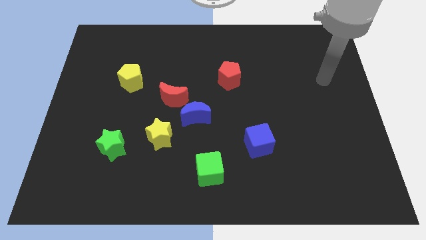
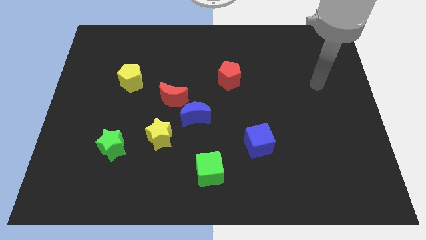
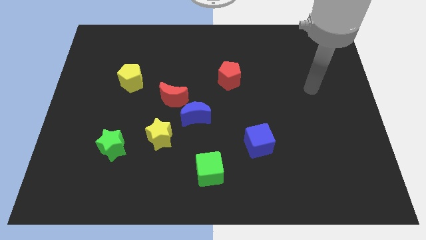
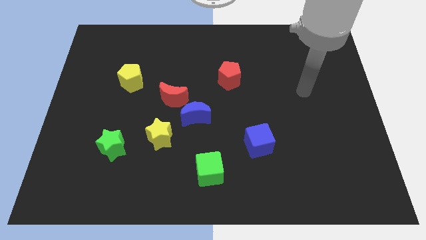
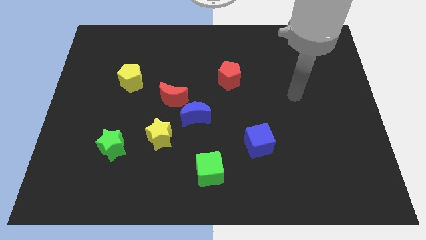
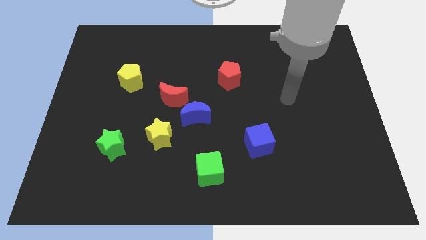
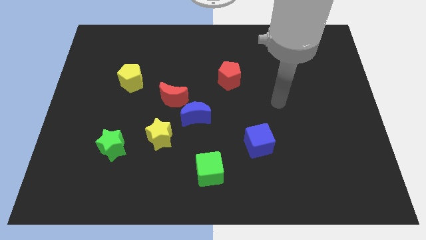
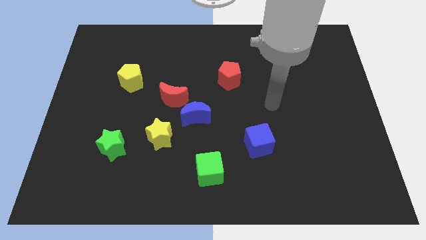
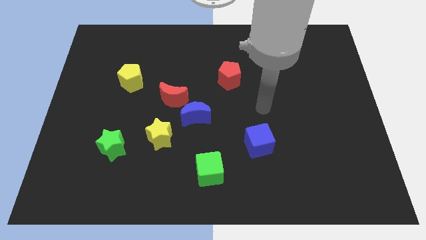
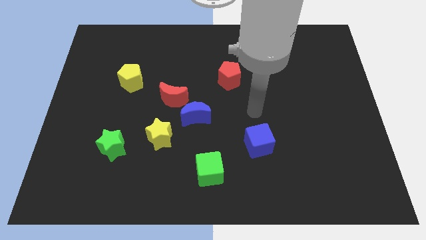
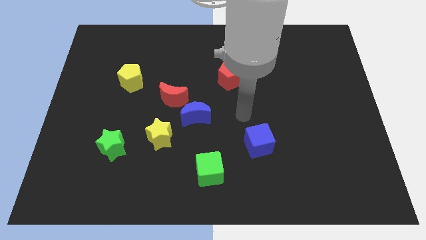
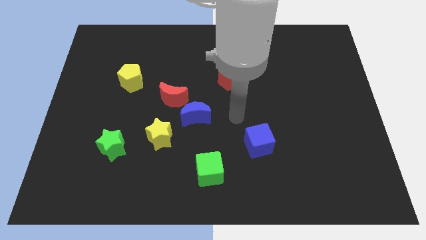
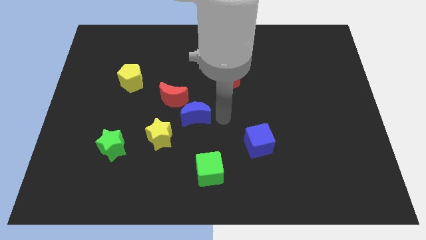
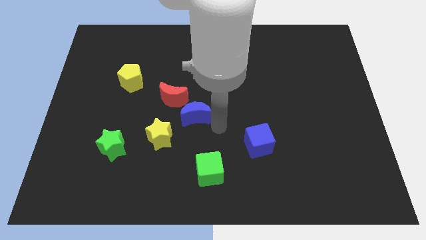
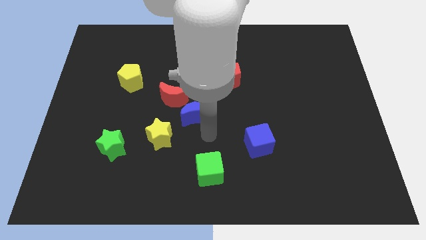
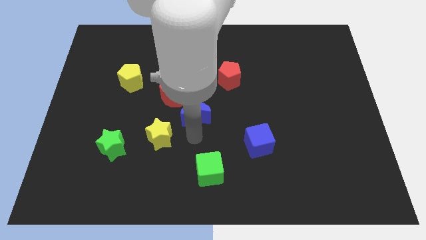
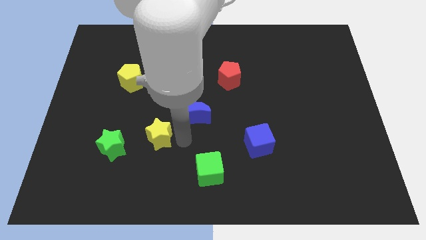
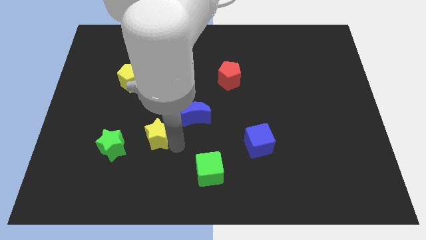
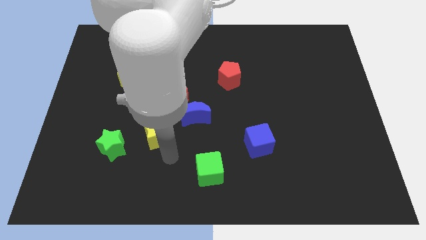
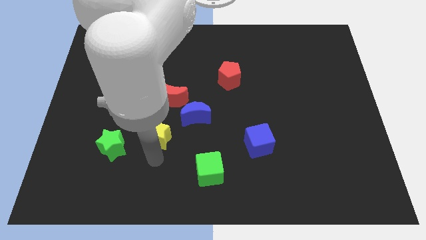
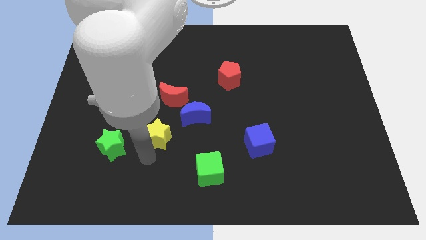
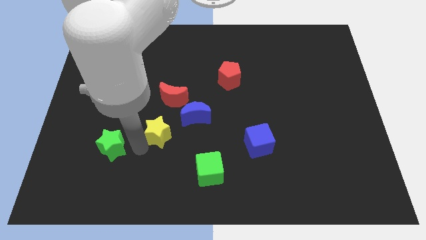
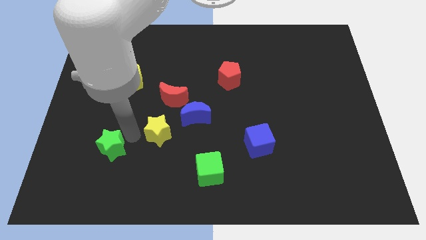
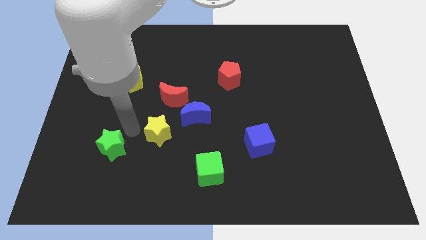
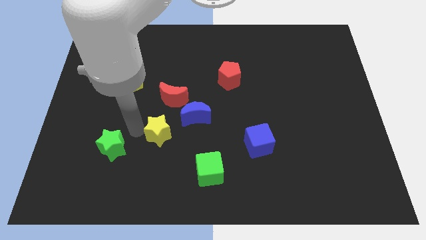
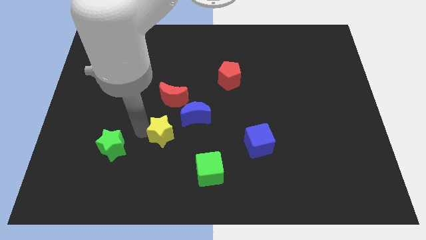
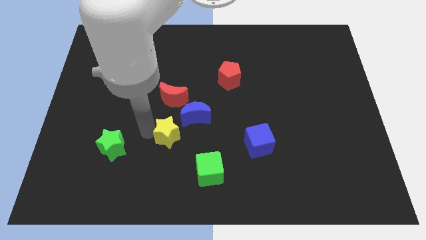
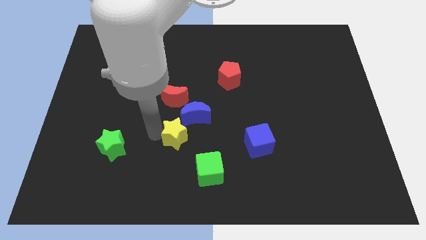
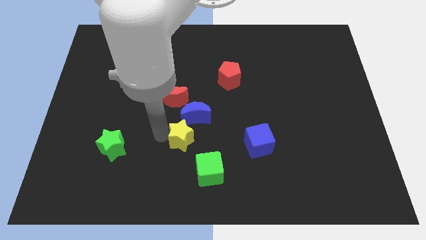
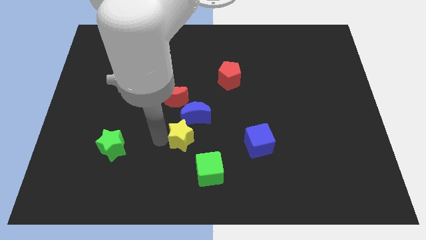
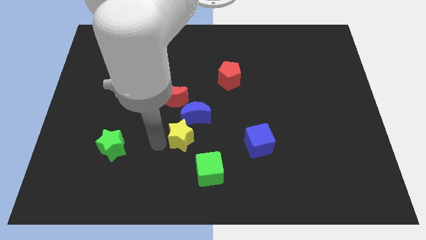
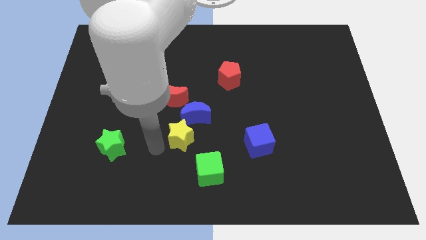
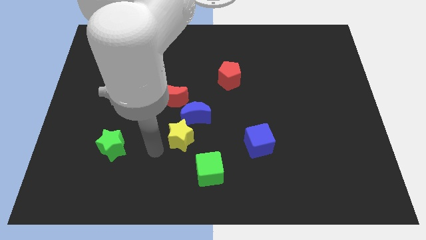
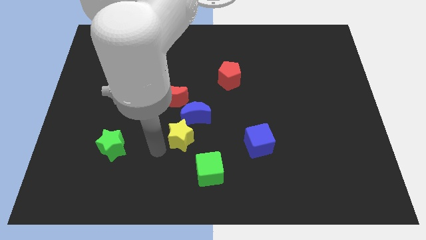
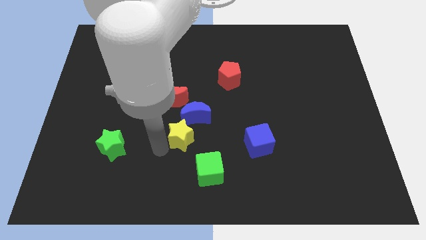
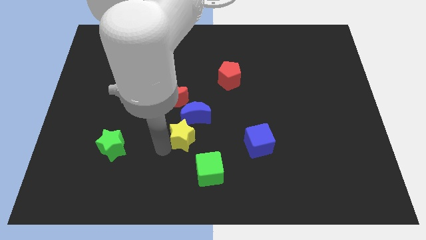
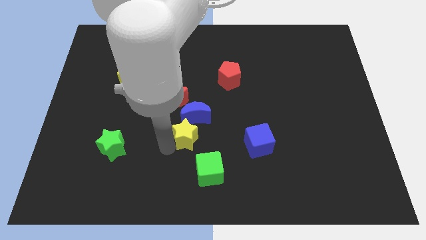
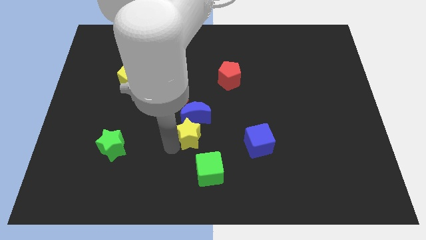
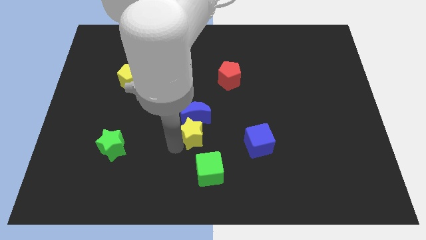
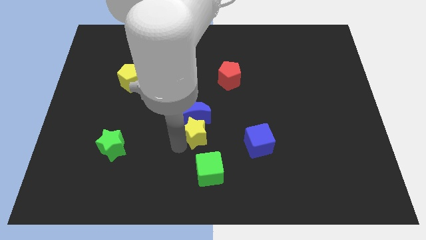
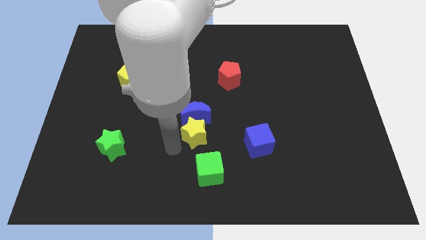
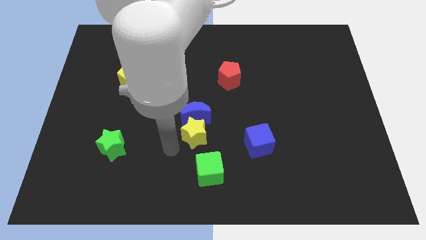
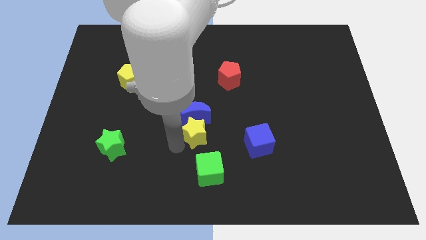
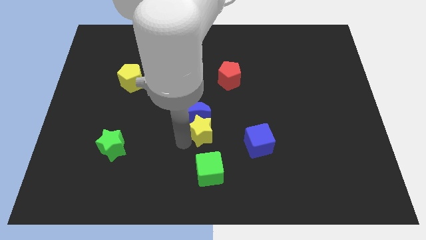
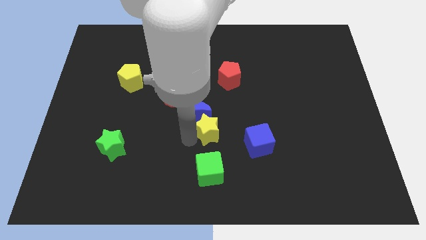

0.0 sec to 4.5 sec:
slide the yellow star a little bit up and right diagonally

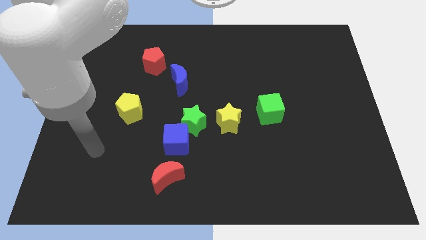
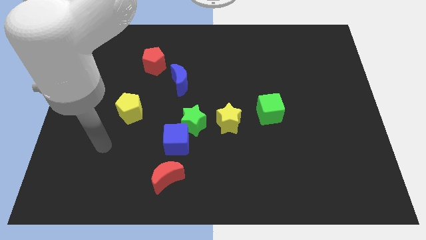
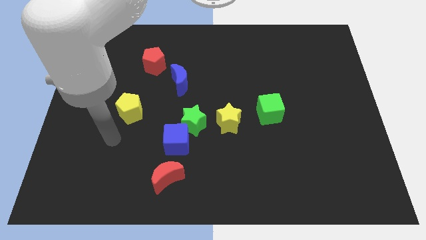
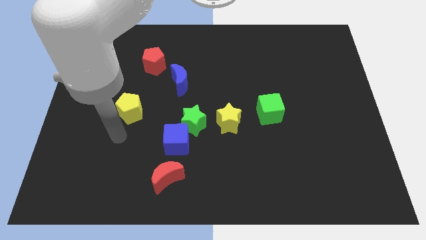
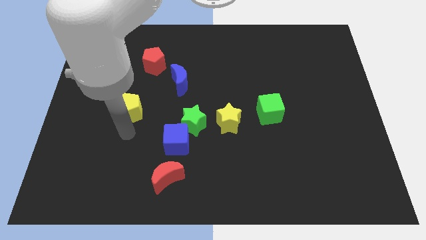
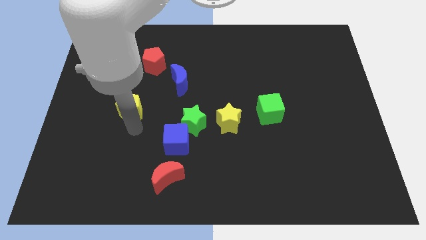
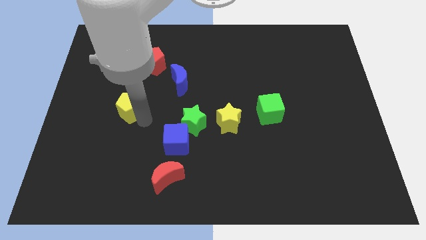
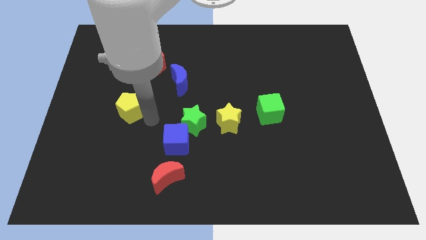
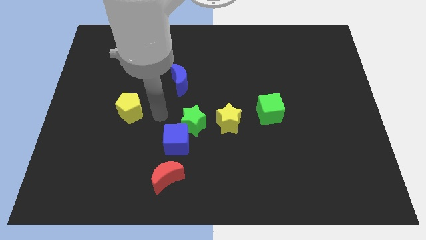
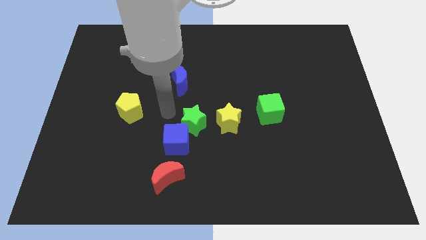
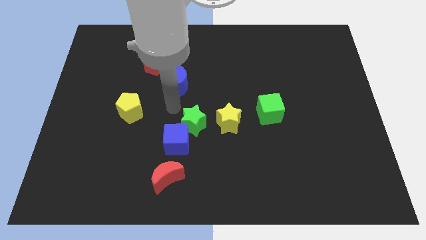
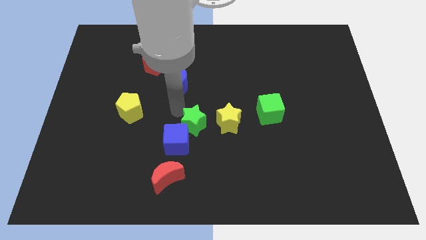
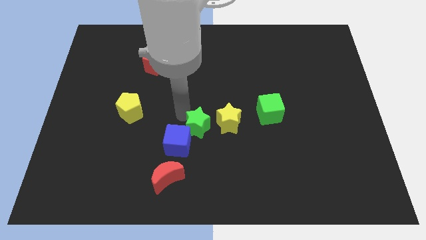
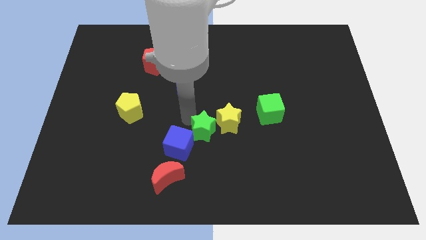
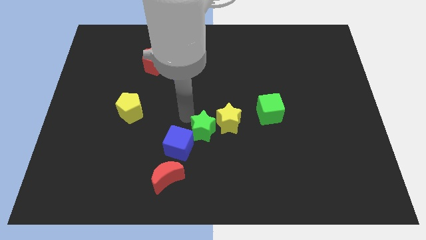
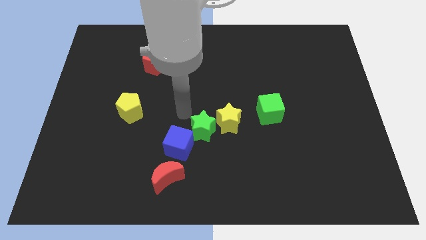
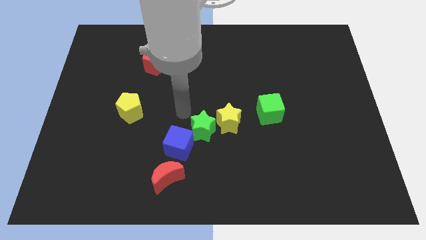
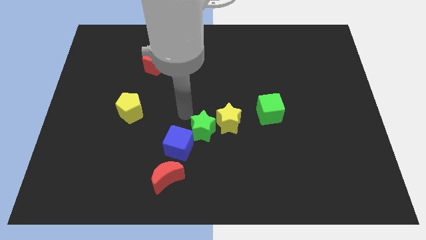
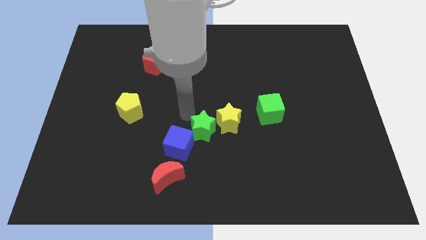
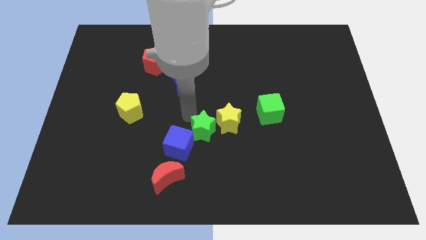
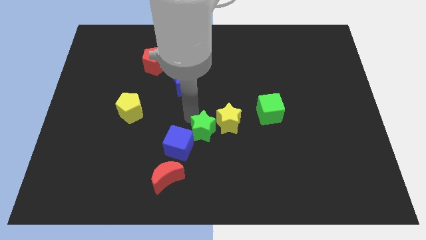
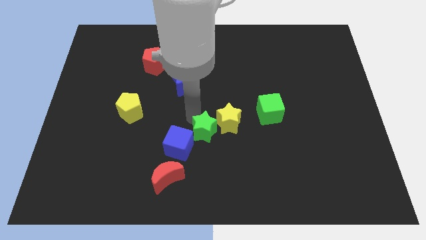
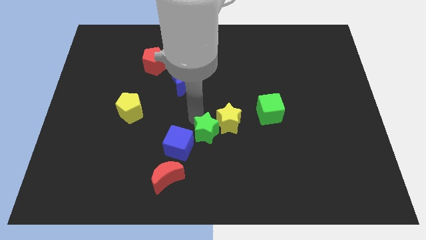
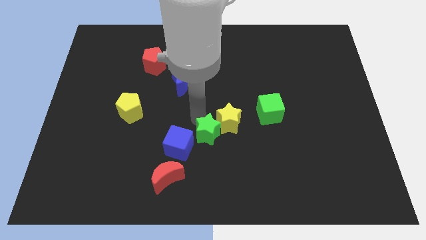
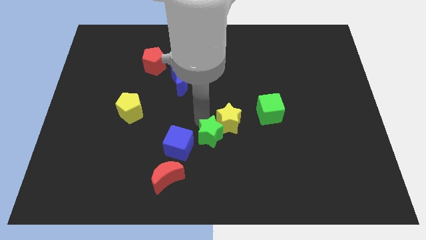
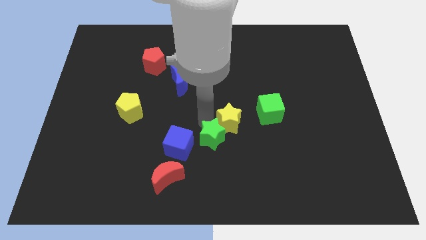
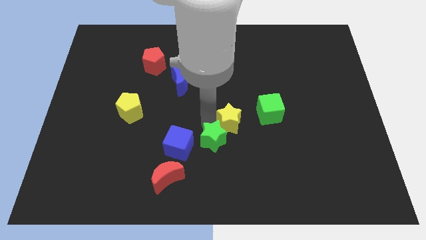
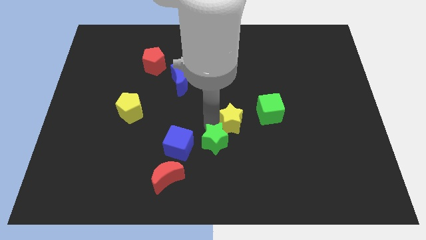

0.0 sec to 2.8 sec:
slightly slide the green star diagonally down and to the right

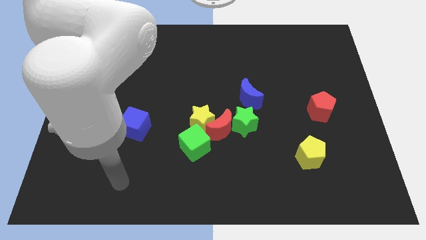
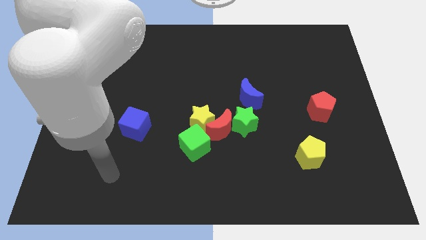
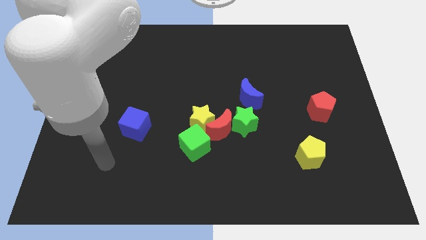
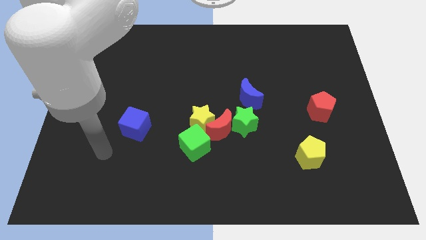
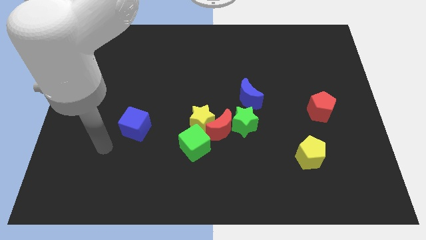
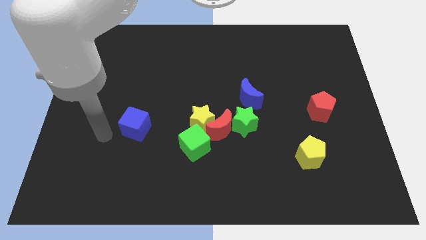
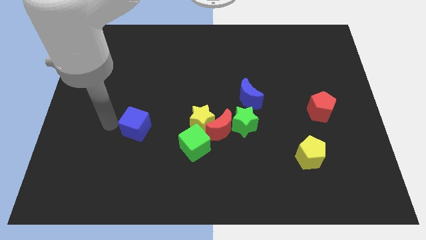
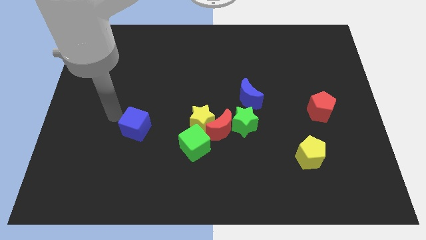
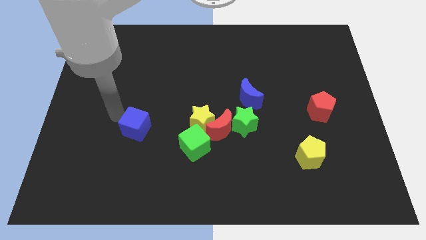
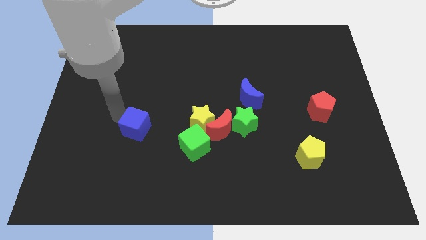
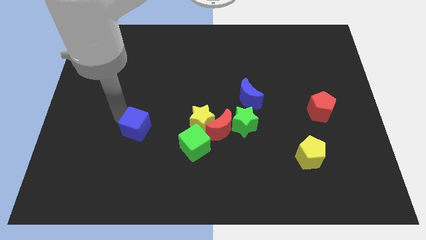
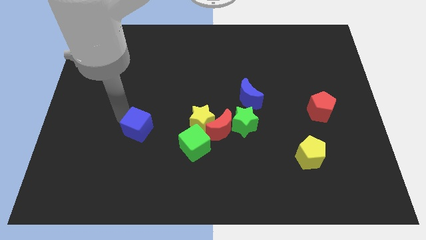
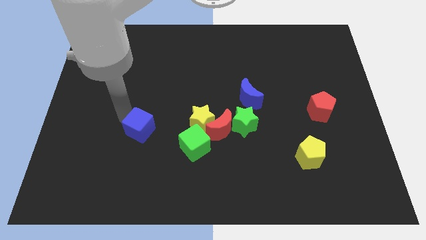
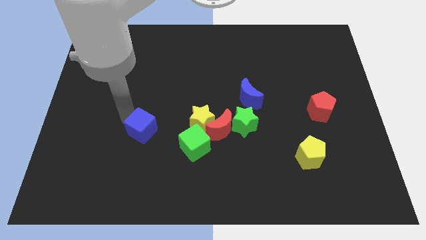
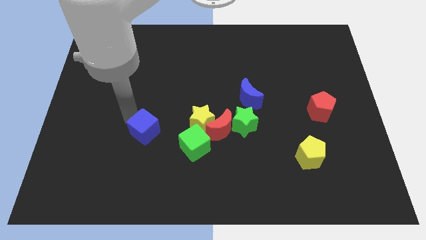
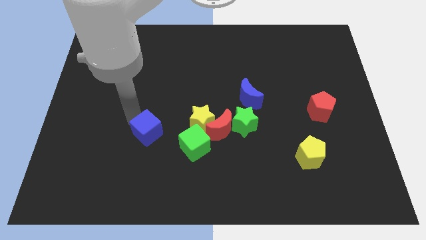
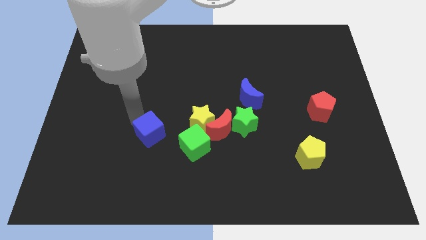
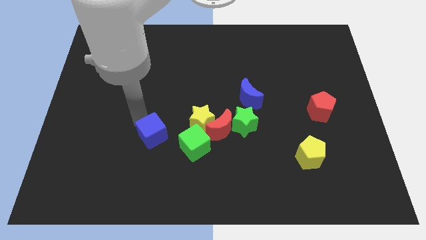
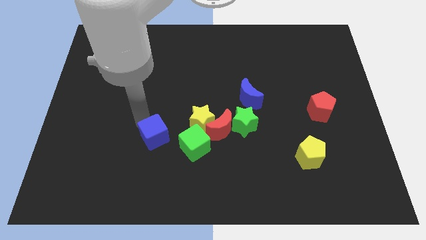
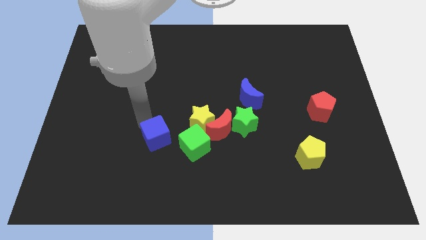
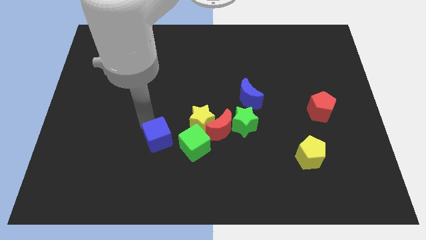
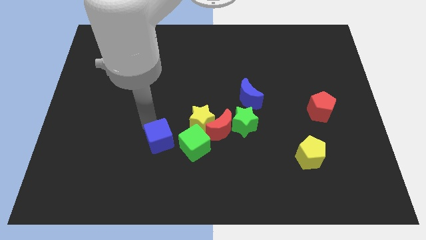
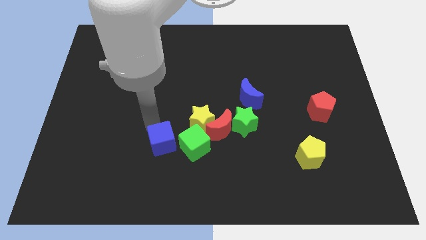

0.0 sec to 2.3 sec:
slightly move the blue cube downwards and to the right diagonally
